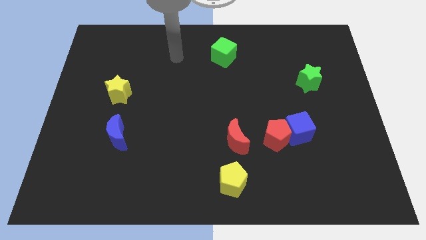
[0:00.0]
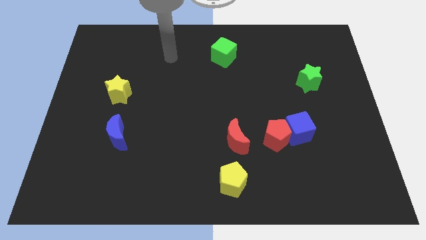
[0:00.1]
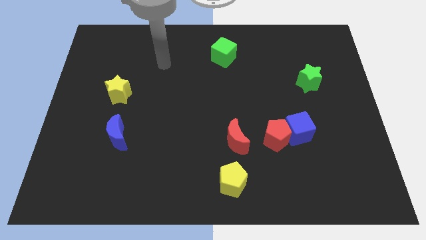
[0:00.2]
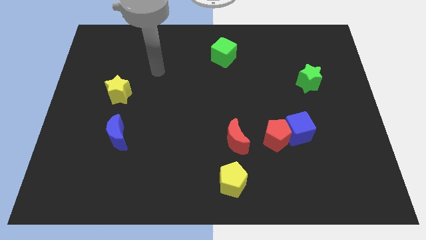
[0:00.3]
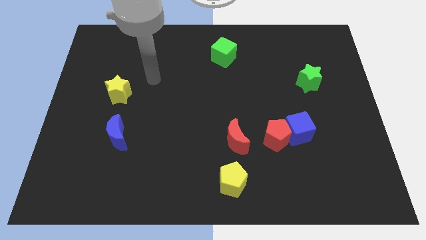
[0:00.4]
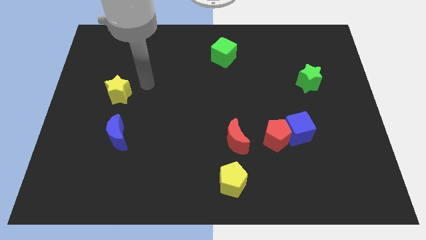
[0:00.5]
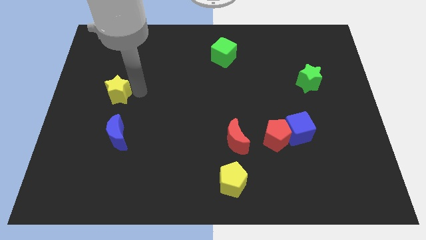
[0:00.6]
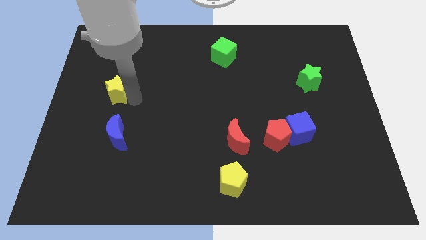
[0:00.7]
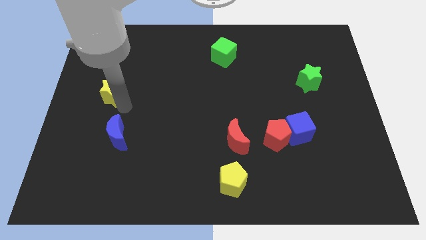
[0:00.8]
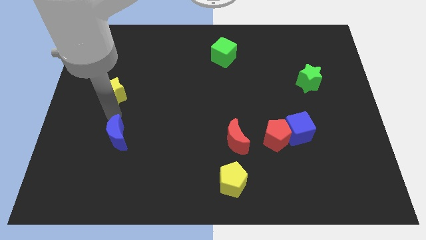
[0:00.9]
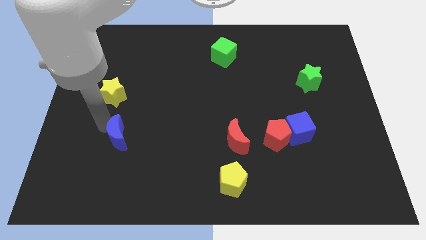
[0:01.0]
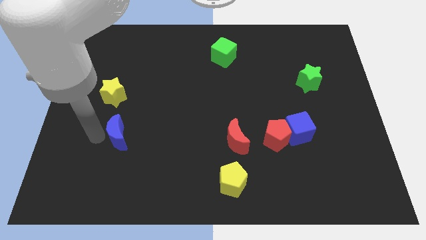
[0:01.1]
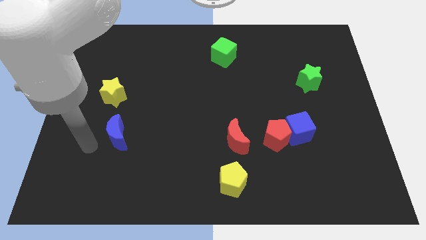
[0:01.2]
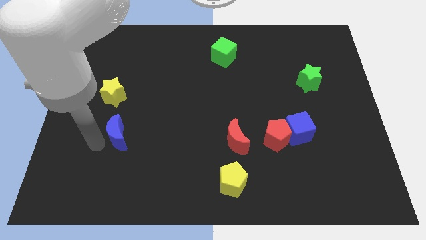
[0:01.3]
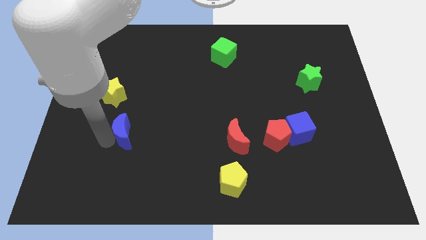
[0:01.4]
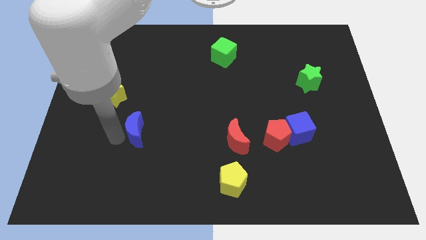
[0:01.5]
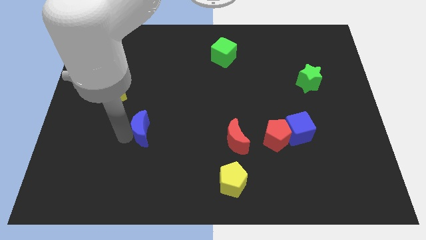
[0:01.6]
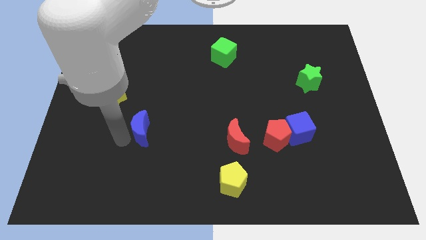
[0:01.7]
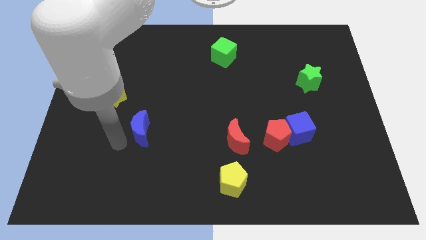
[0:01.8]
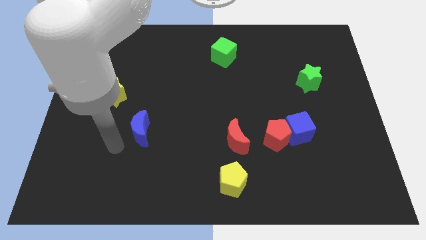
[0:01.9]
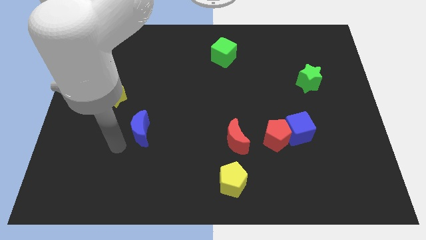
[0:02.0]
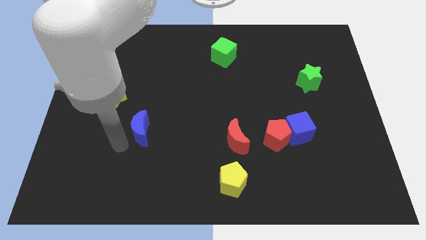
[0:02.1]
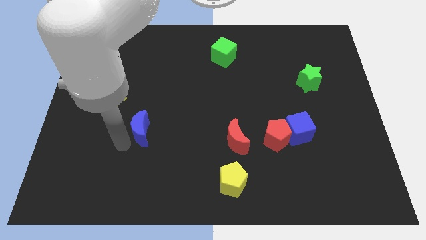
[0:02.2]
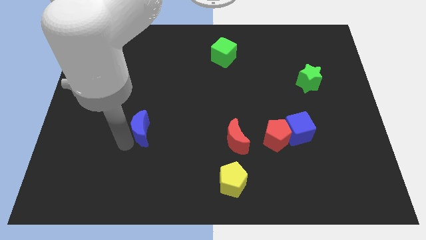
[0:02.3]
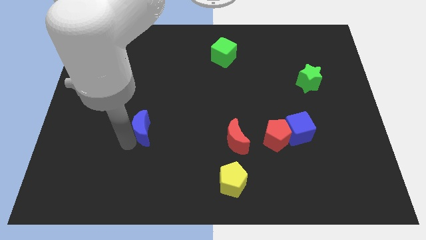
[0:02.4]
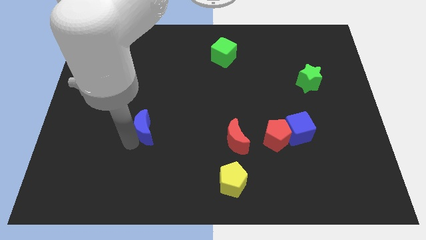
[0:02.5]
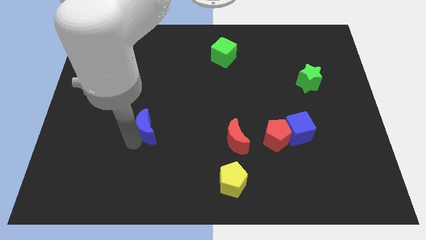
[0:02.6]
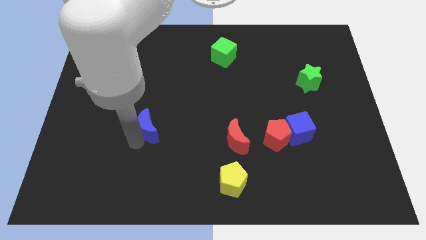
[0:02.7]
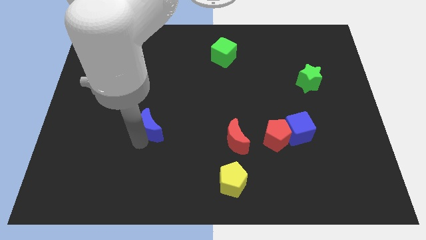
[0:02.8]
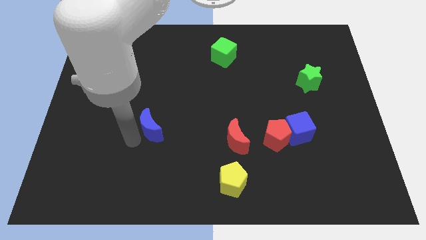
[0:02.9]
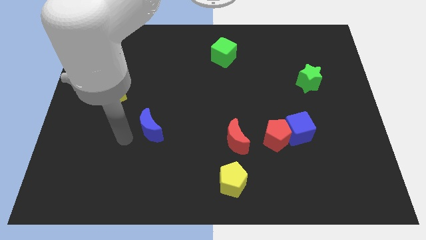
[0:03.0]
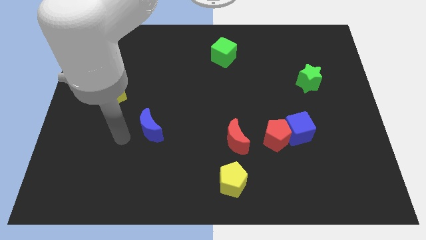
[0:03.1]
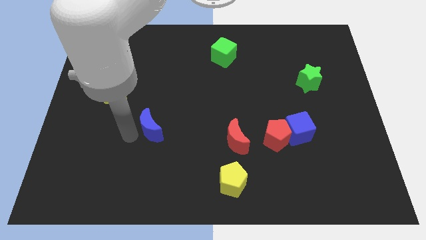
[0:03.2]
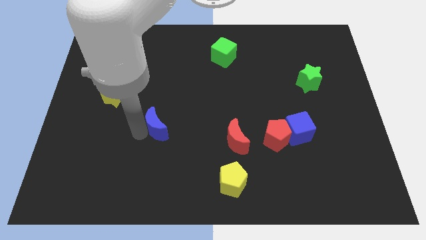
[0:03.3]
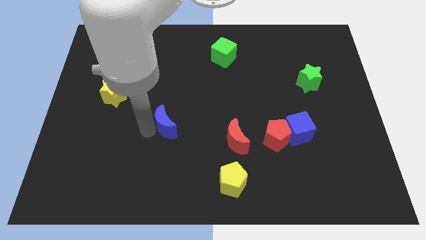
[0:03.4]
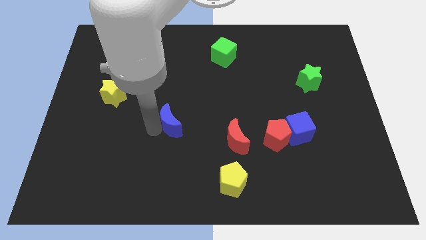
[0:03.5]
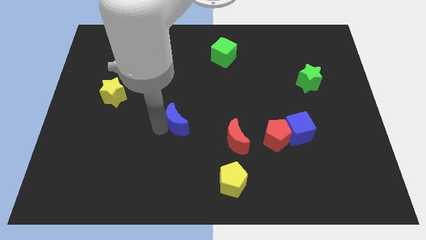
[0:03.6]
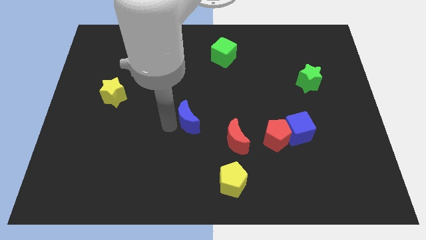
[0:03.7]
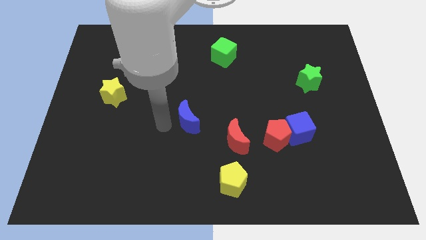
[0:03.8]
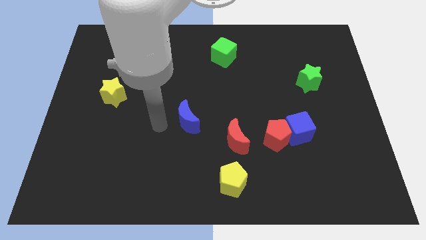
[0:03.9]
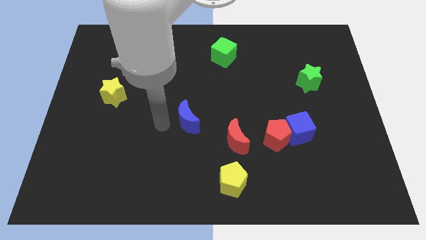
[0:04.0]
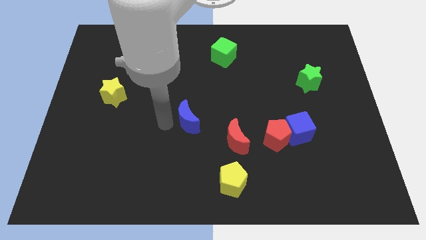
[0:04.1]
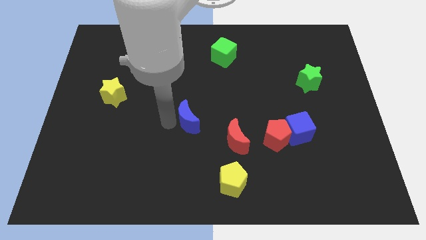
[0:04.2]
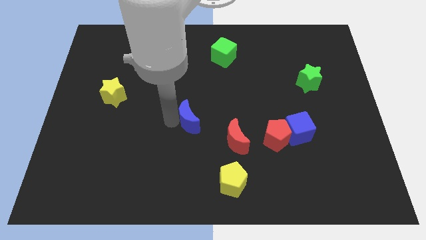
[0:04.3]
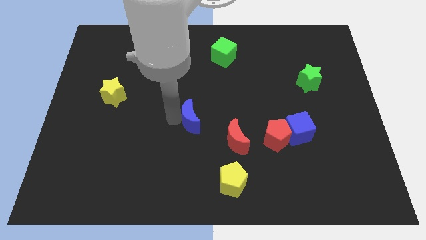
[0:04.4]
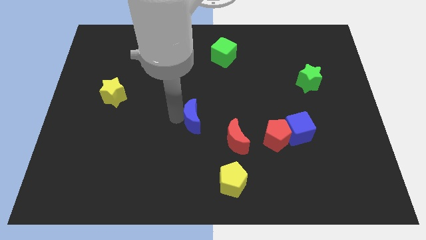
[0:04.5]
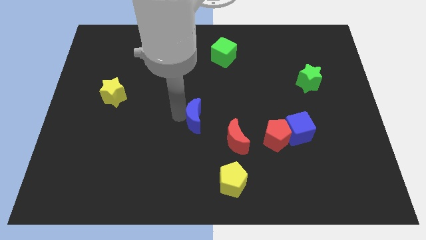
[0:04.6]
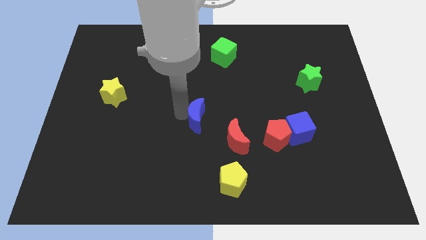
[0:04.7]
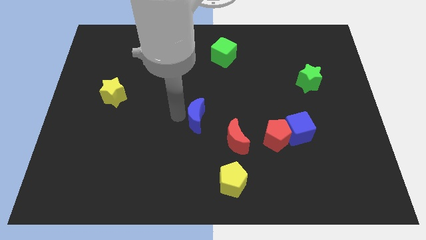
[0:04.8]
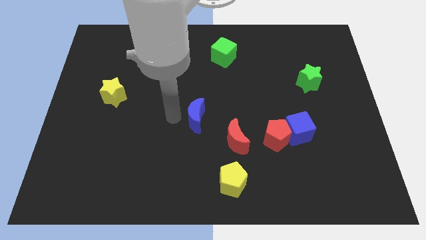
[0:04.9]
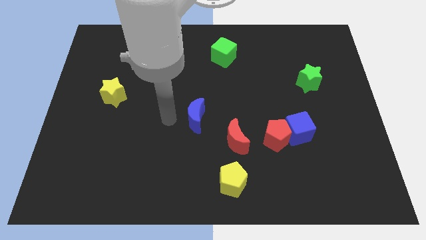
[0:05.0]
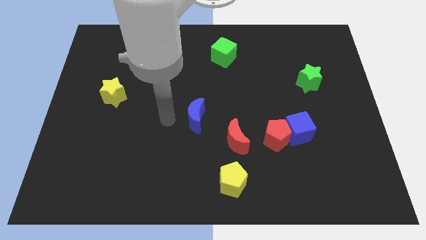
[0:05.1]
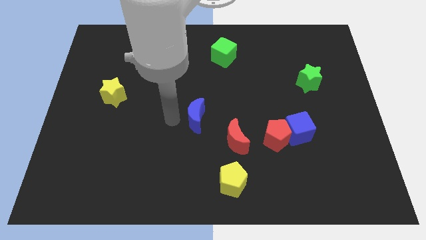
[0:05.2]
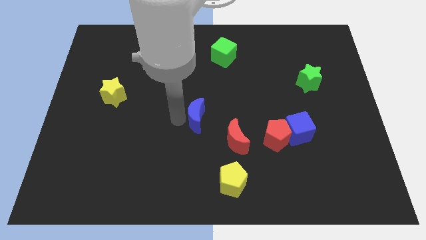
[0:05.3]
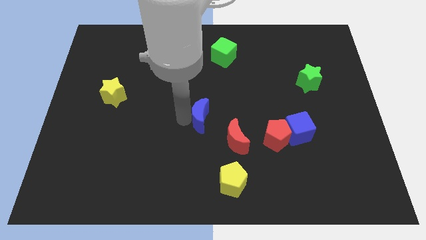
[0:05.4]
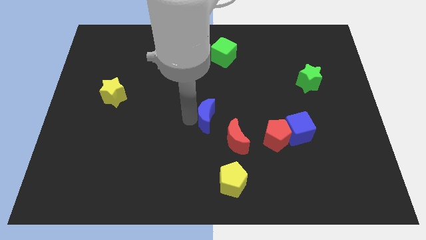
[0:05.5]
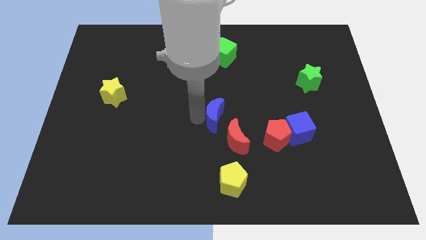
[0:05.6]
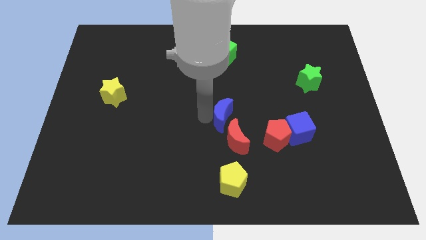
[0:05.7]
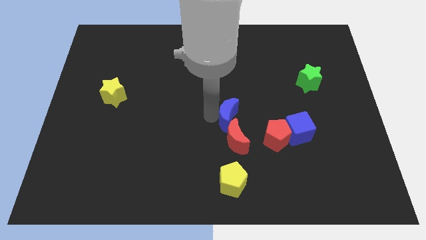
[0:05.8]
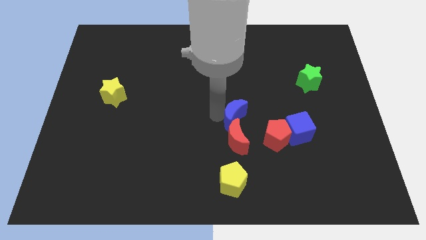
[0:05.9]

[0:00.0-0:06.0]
push the blue moon just left of the blue cube

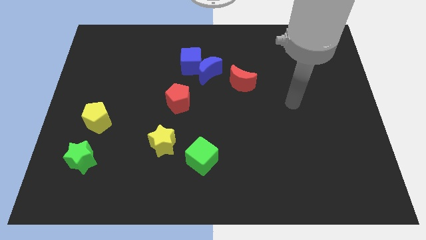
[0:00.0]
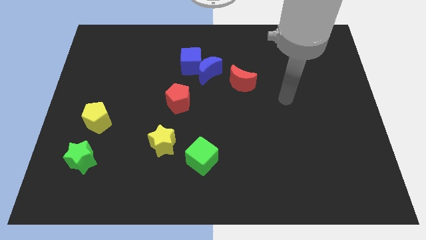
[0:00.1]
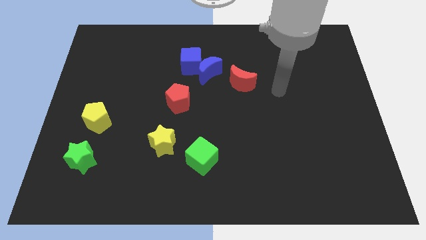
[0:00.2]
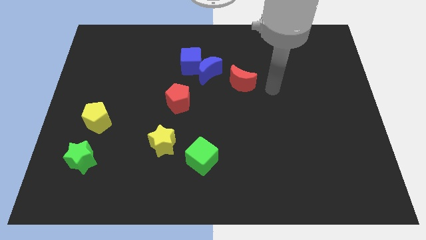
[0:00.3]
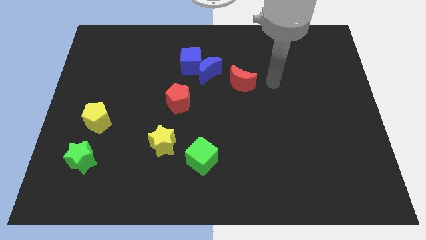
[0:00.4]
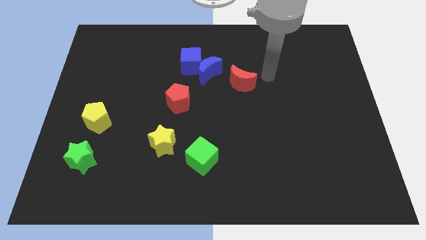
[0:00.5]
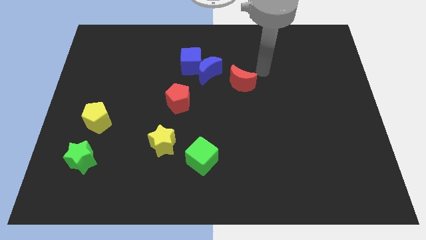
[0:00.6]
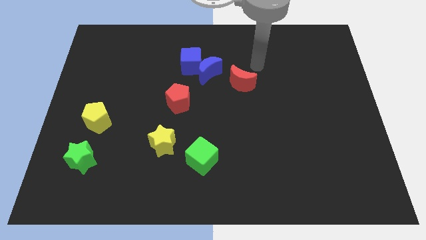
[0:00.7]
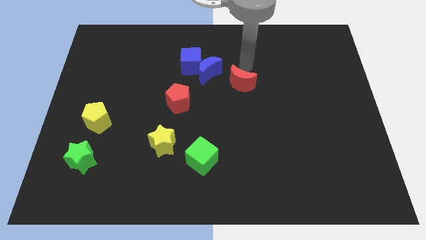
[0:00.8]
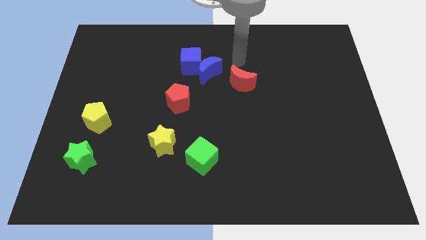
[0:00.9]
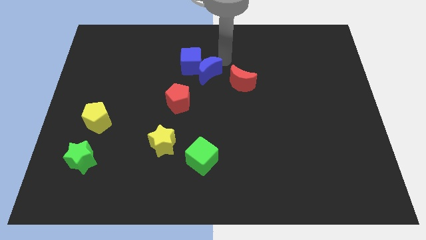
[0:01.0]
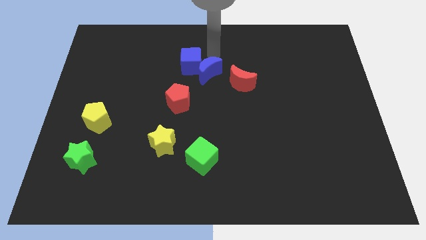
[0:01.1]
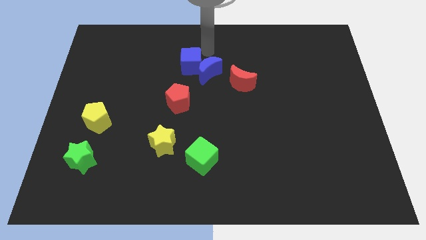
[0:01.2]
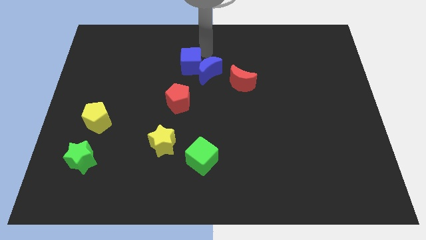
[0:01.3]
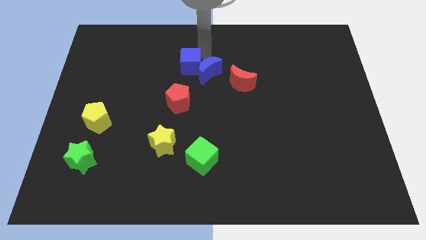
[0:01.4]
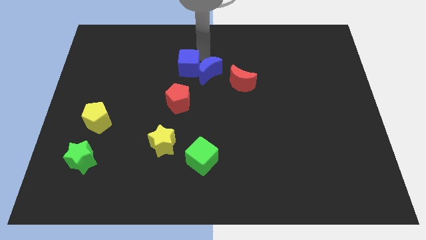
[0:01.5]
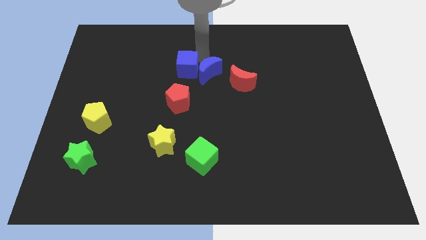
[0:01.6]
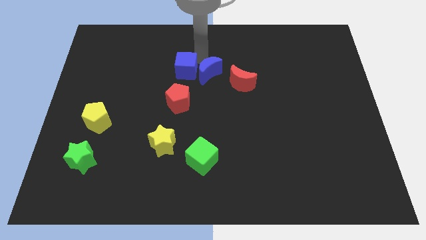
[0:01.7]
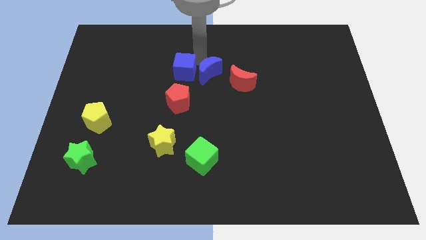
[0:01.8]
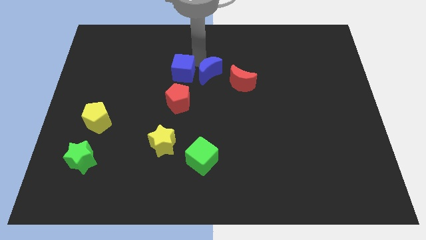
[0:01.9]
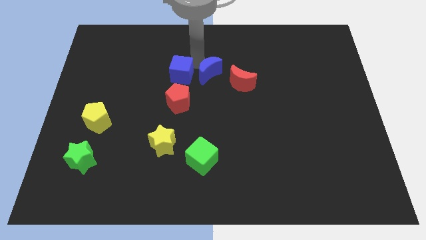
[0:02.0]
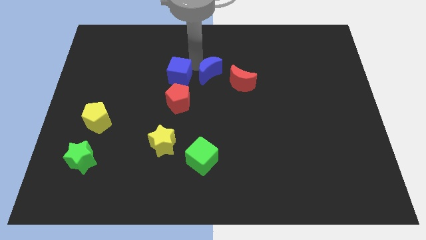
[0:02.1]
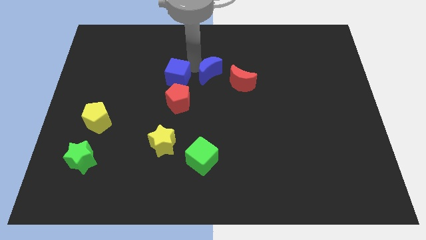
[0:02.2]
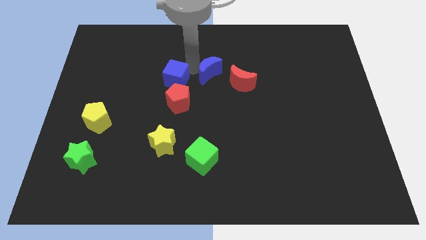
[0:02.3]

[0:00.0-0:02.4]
push the blue cube to the top left of the red pentagon
